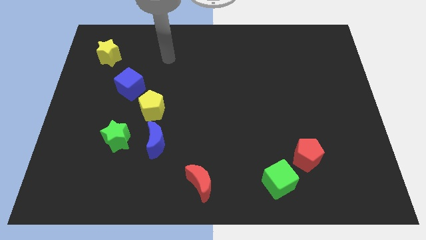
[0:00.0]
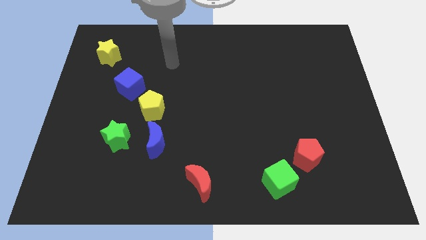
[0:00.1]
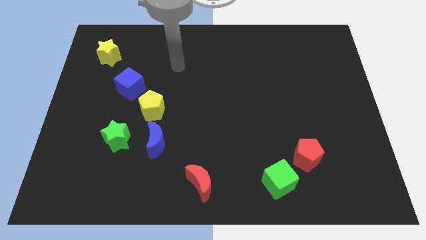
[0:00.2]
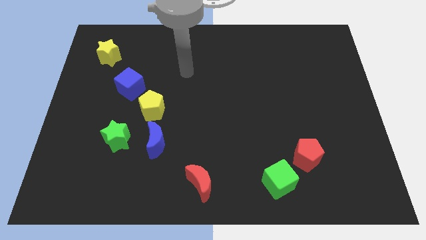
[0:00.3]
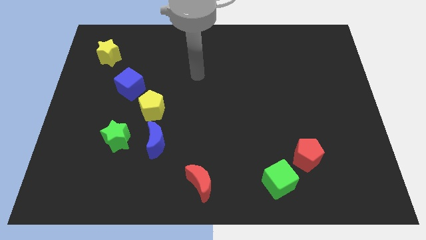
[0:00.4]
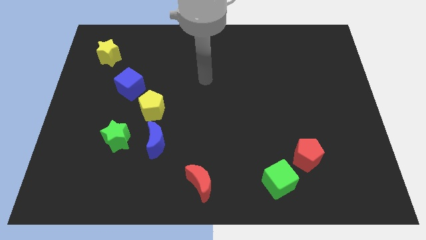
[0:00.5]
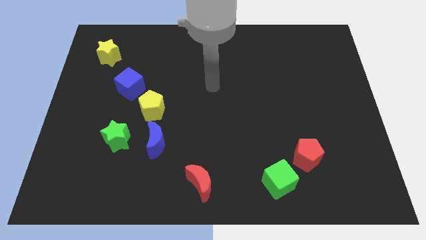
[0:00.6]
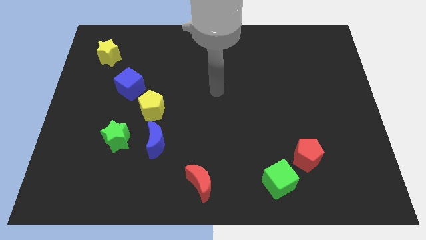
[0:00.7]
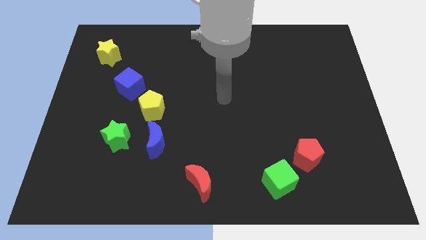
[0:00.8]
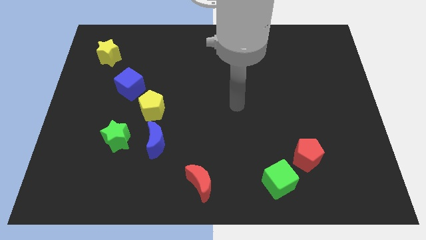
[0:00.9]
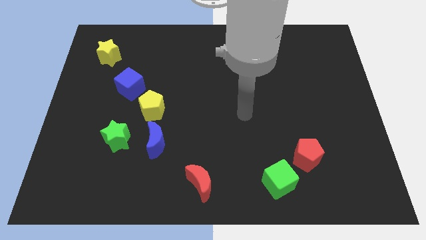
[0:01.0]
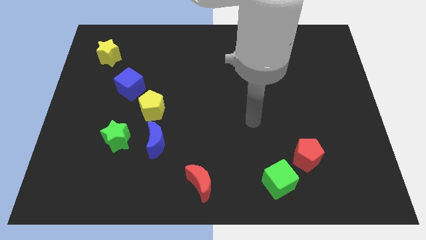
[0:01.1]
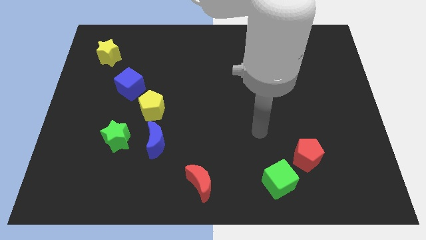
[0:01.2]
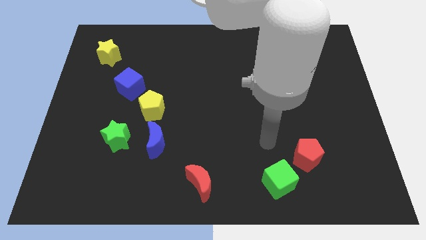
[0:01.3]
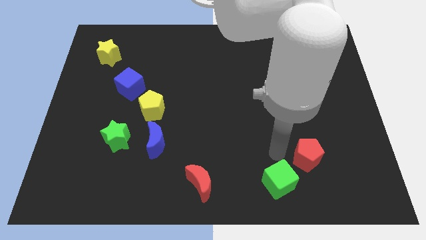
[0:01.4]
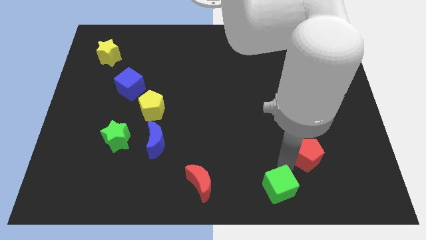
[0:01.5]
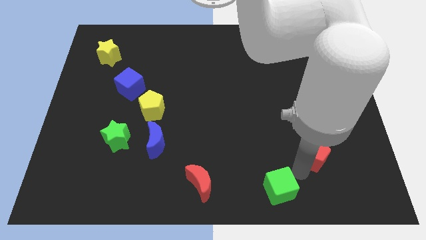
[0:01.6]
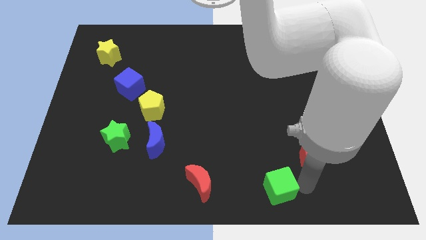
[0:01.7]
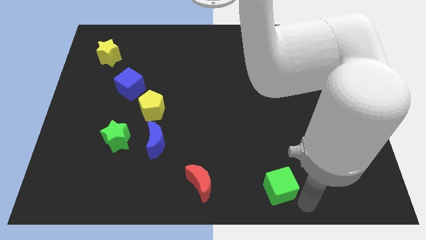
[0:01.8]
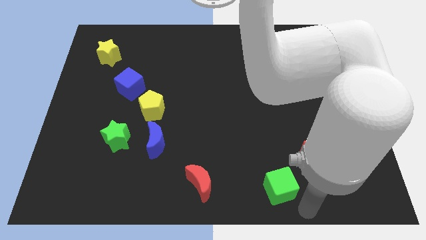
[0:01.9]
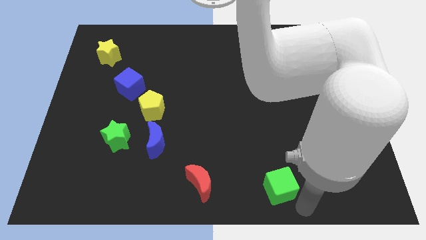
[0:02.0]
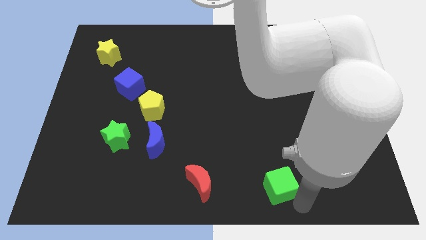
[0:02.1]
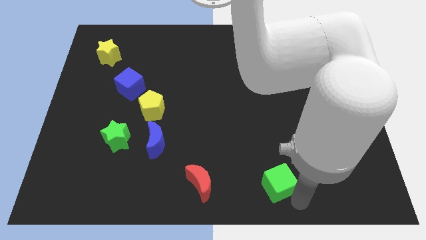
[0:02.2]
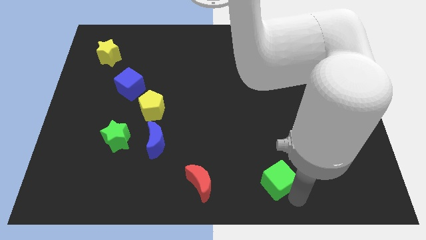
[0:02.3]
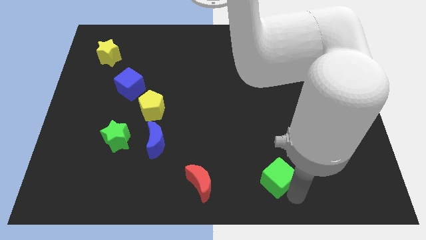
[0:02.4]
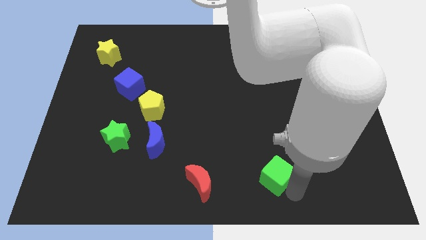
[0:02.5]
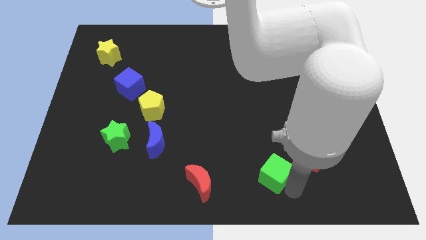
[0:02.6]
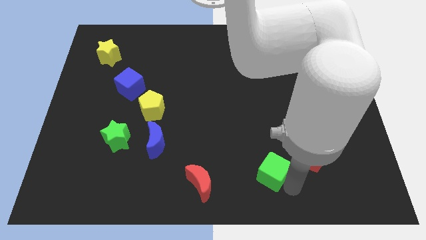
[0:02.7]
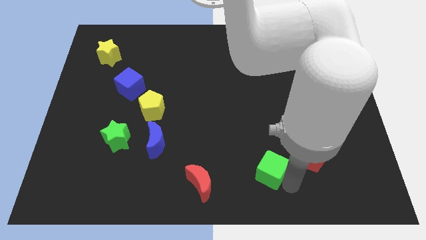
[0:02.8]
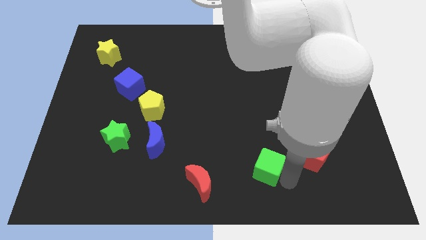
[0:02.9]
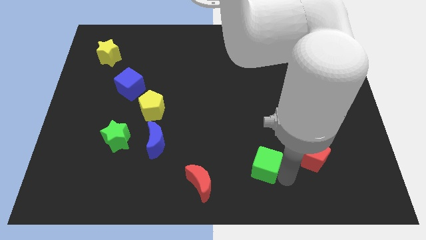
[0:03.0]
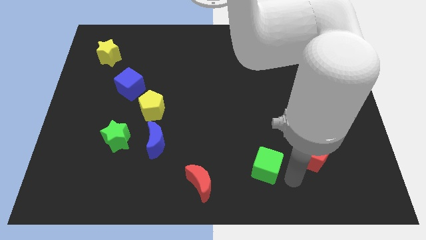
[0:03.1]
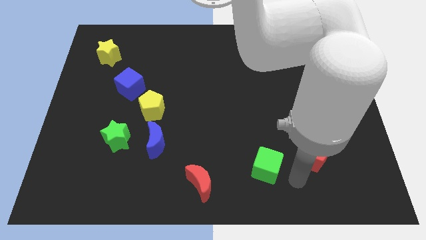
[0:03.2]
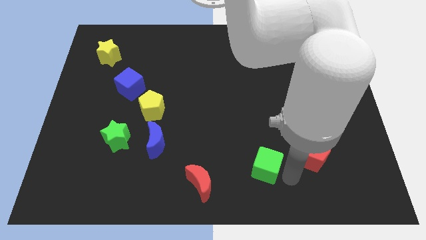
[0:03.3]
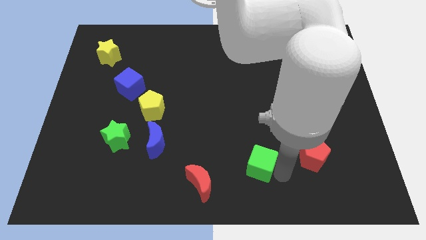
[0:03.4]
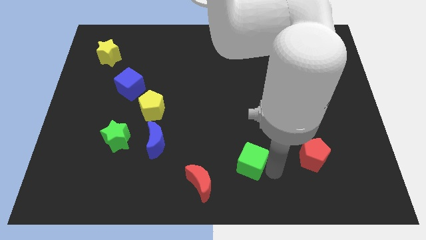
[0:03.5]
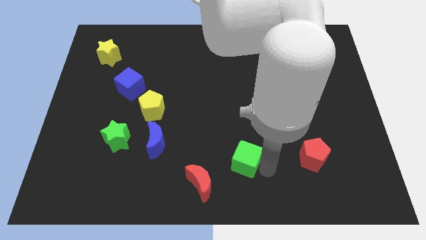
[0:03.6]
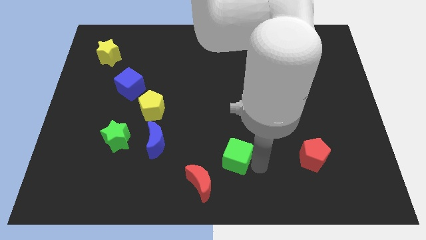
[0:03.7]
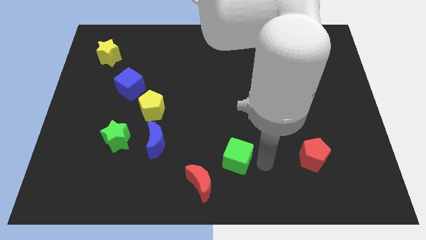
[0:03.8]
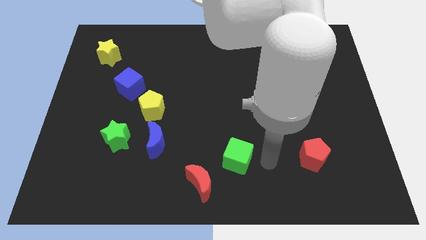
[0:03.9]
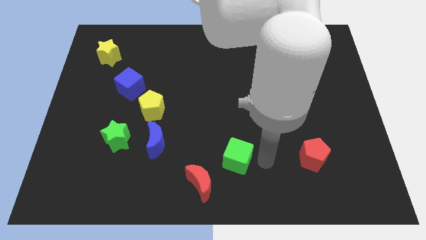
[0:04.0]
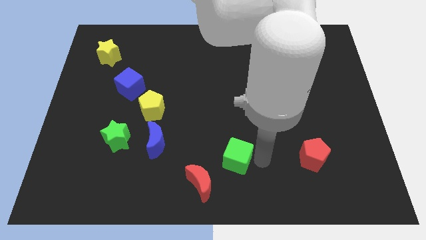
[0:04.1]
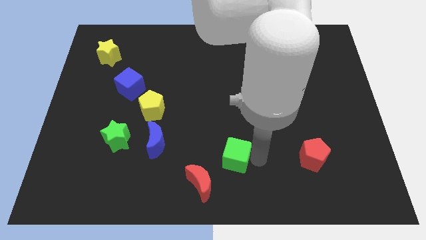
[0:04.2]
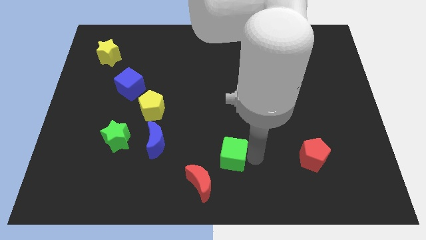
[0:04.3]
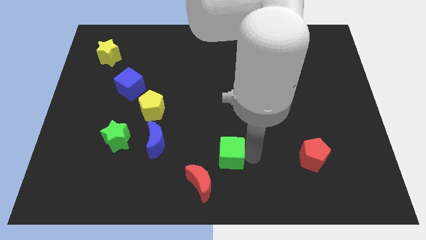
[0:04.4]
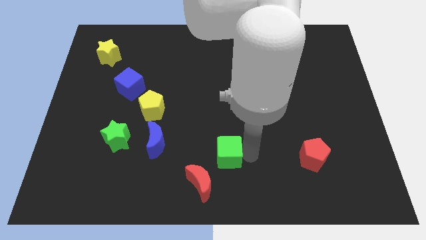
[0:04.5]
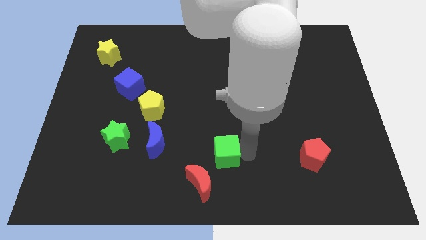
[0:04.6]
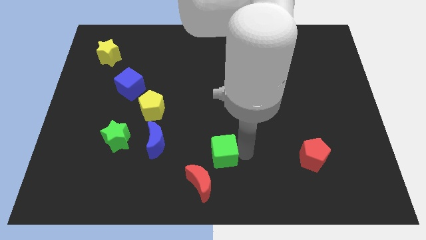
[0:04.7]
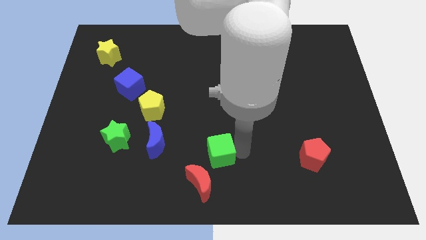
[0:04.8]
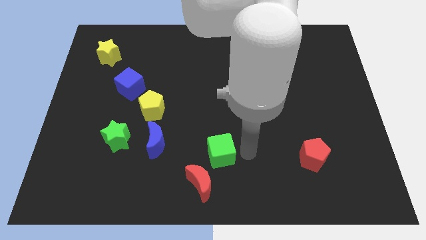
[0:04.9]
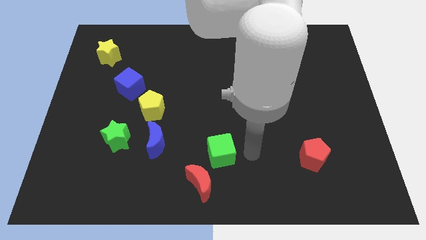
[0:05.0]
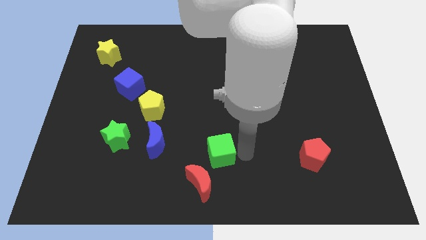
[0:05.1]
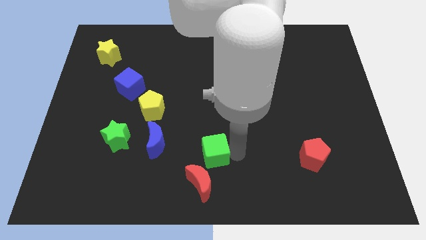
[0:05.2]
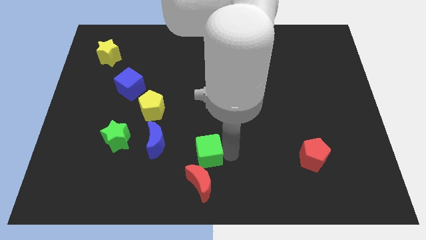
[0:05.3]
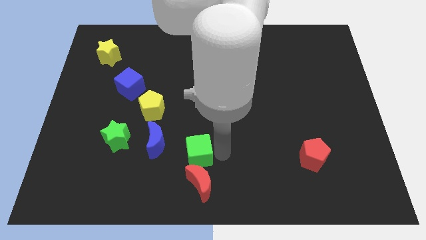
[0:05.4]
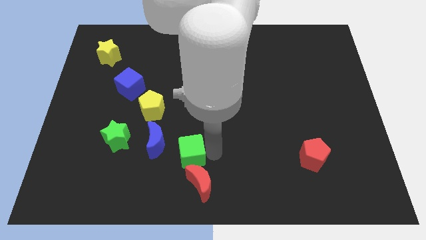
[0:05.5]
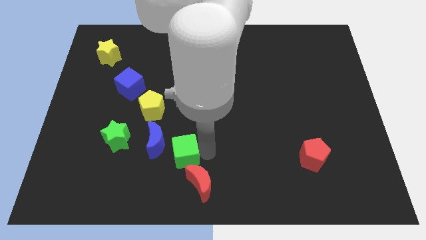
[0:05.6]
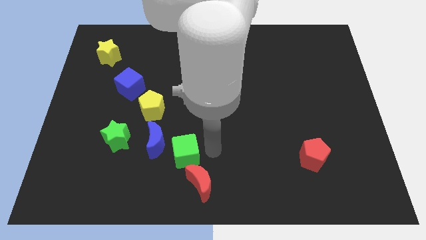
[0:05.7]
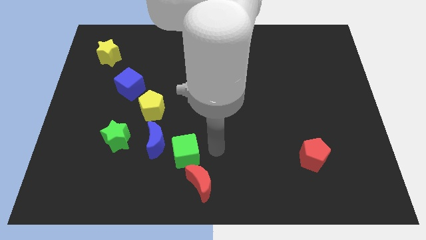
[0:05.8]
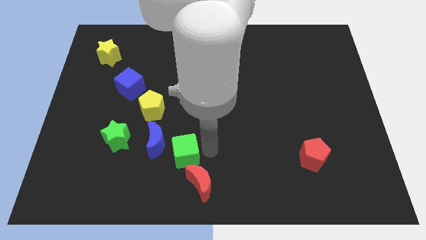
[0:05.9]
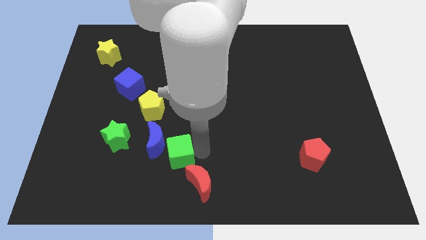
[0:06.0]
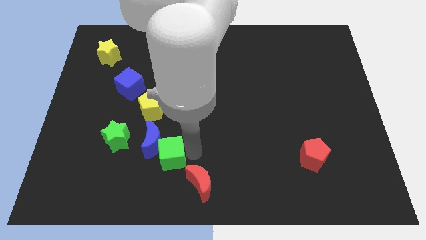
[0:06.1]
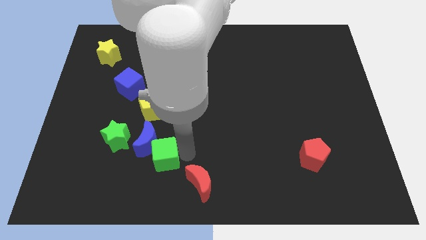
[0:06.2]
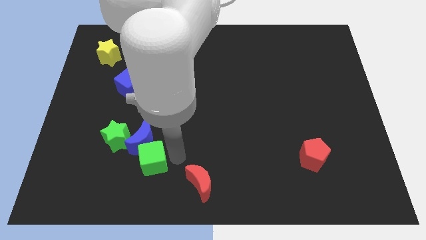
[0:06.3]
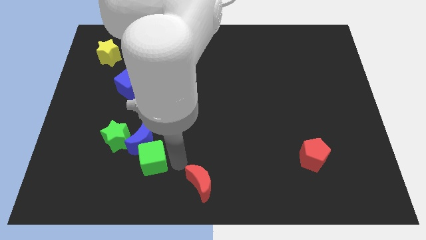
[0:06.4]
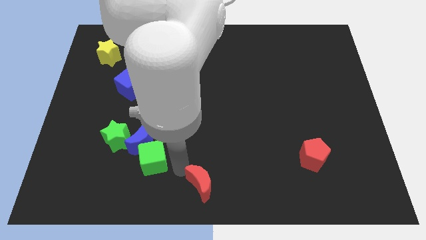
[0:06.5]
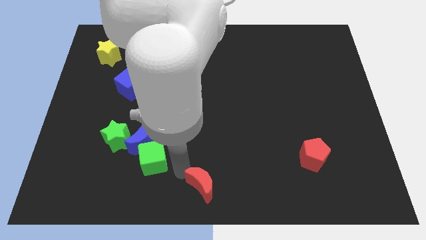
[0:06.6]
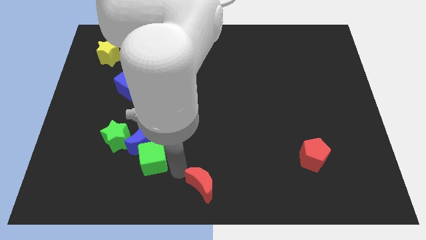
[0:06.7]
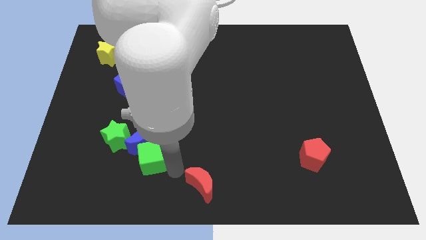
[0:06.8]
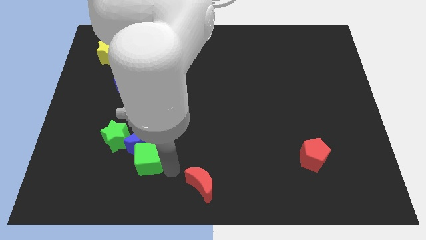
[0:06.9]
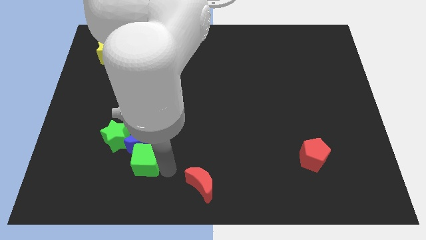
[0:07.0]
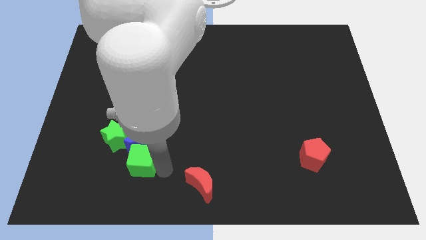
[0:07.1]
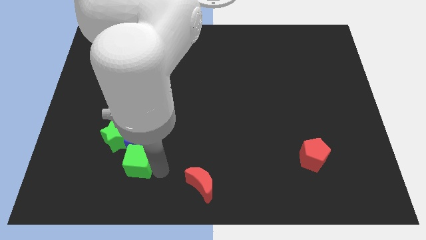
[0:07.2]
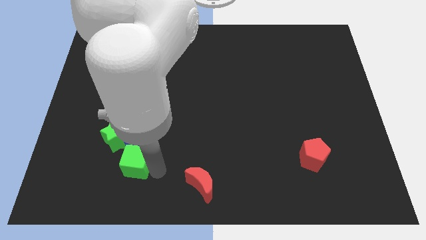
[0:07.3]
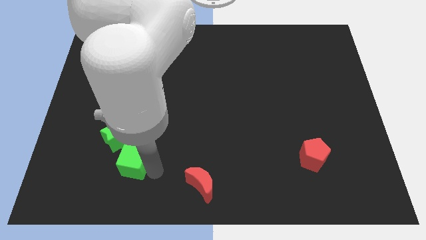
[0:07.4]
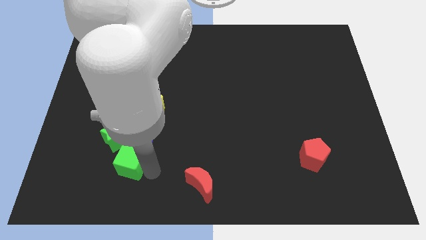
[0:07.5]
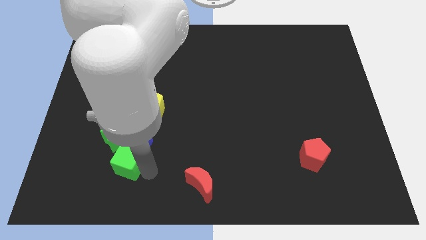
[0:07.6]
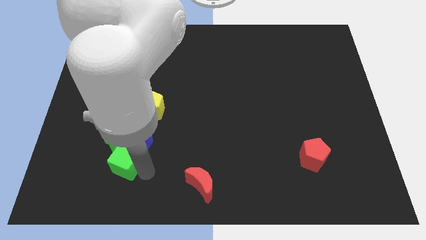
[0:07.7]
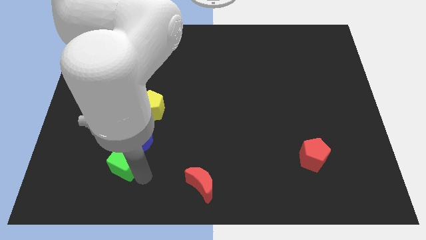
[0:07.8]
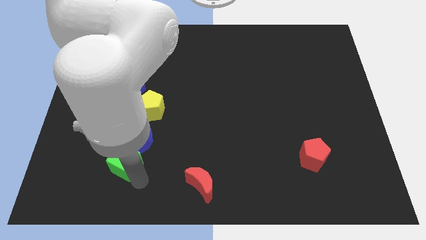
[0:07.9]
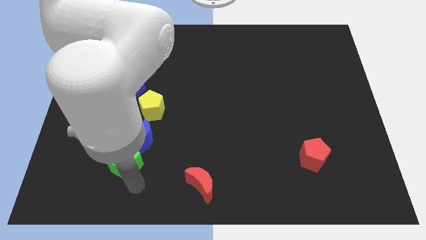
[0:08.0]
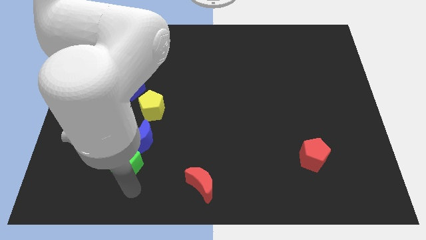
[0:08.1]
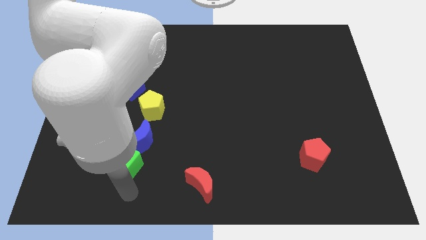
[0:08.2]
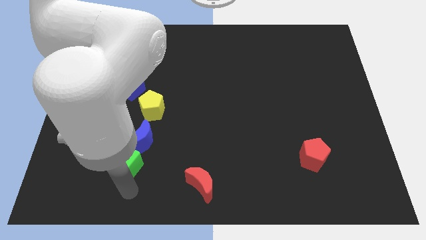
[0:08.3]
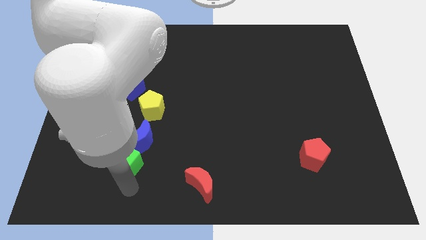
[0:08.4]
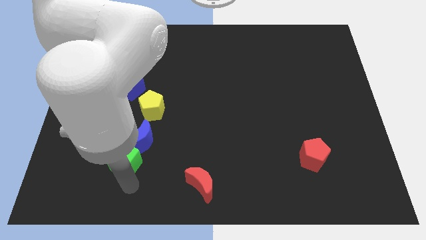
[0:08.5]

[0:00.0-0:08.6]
push the green cube to the green star
